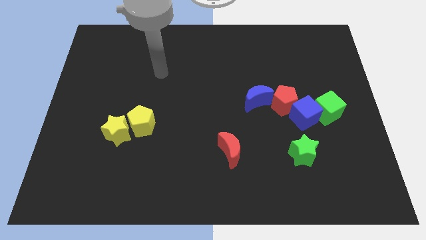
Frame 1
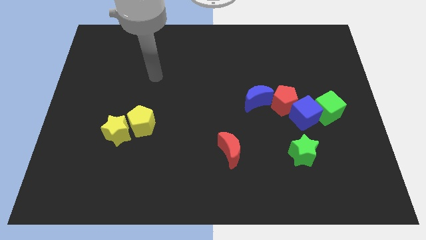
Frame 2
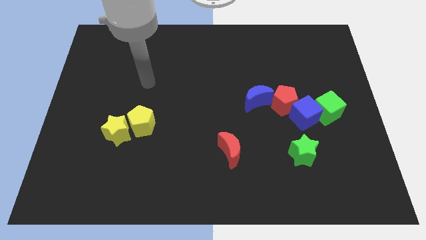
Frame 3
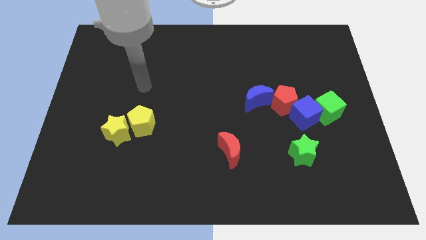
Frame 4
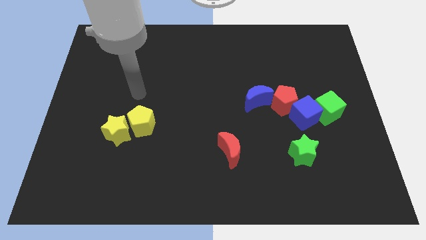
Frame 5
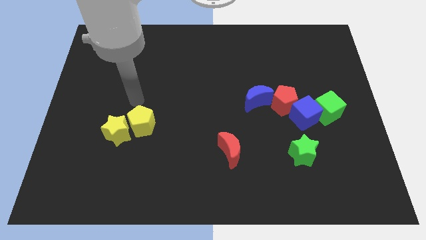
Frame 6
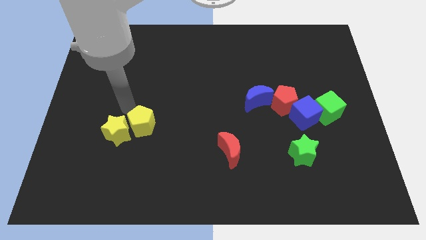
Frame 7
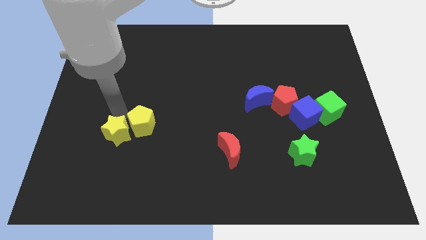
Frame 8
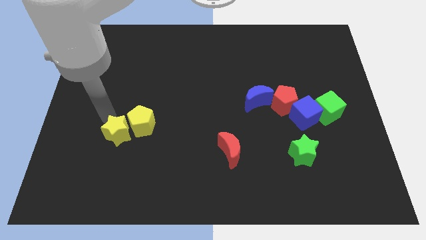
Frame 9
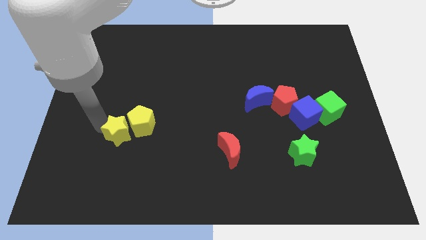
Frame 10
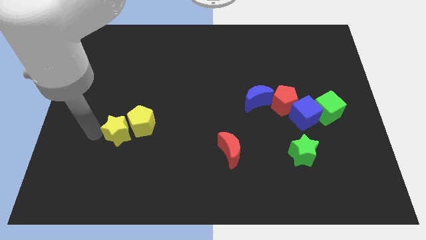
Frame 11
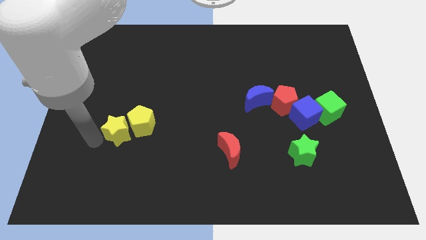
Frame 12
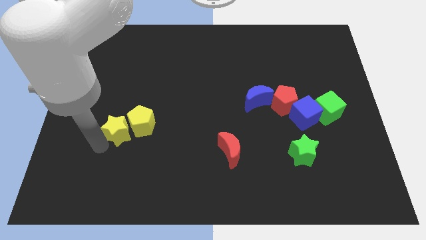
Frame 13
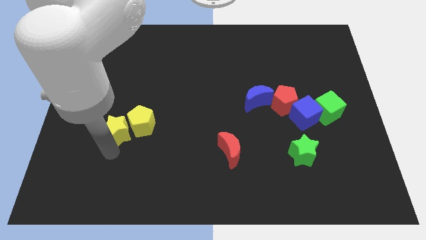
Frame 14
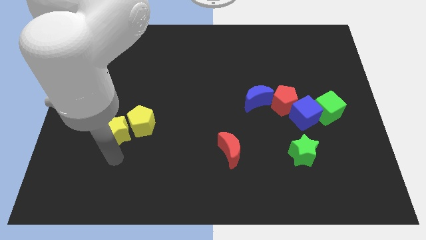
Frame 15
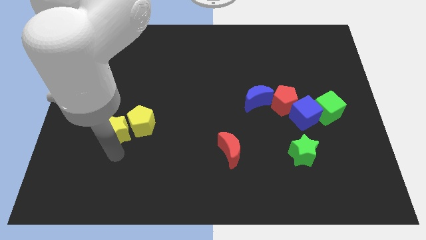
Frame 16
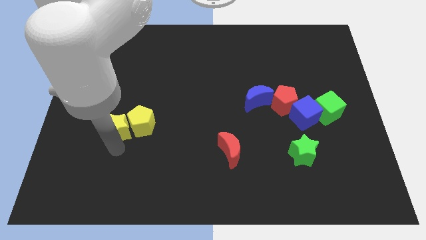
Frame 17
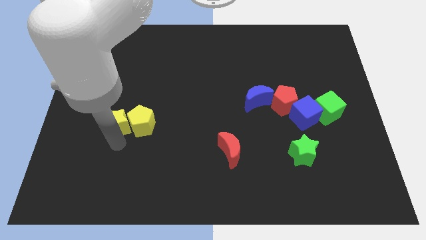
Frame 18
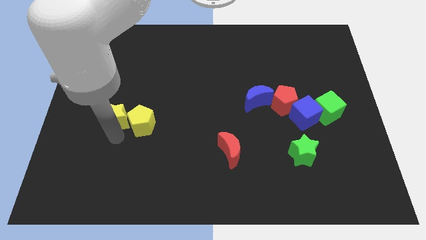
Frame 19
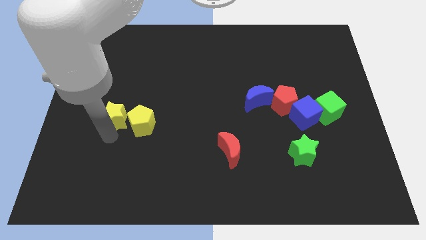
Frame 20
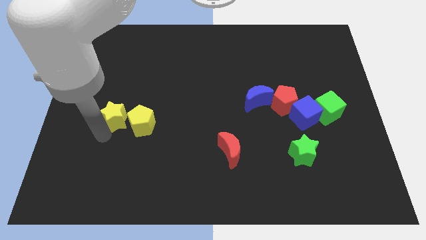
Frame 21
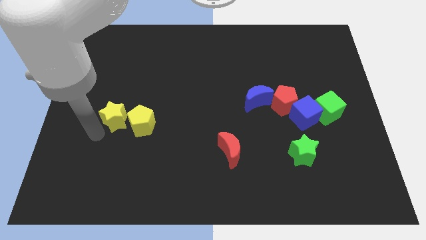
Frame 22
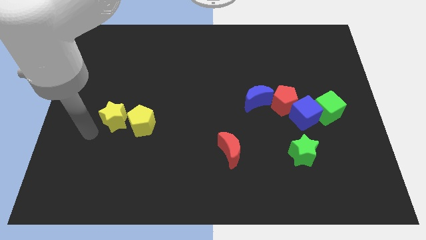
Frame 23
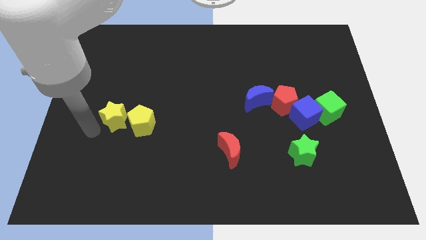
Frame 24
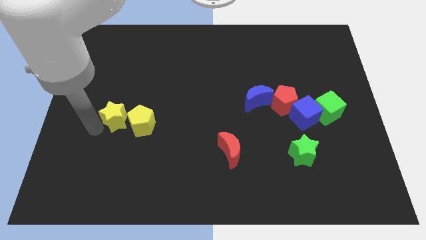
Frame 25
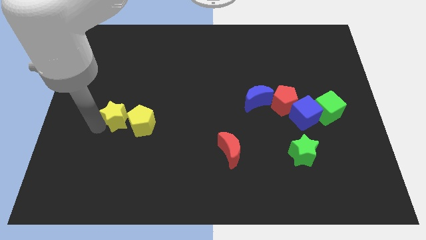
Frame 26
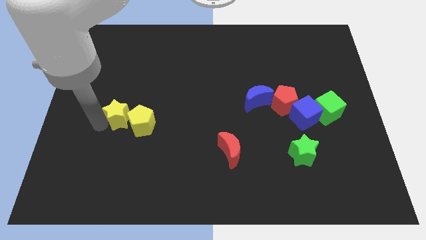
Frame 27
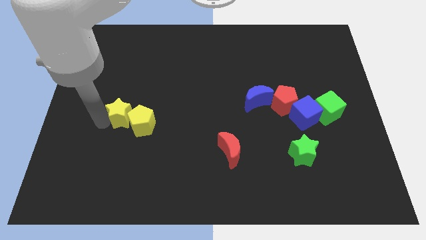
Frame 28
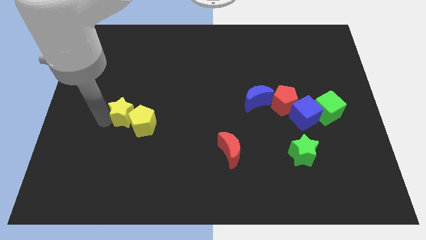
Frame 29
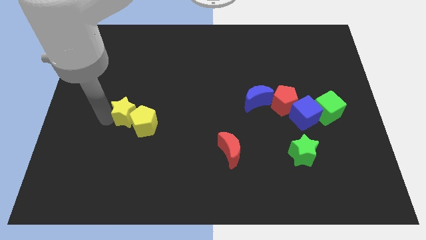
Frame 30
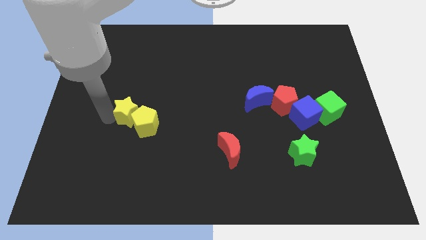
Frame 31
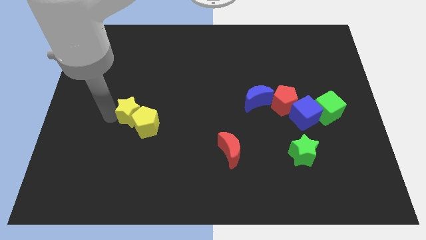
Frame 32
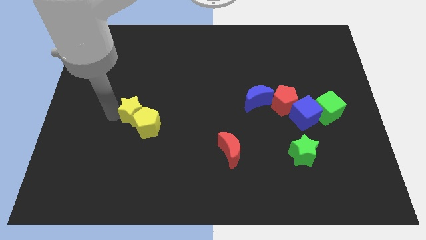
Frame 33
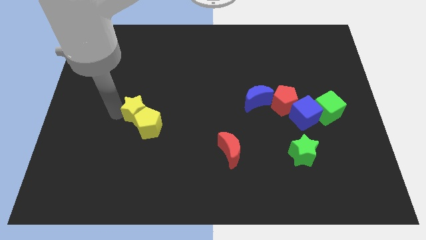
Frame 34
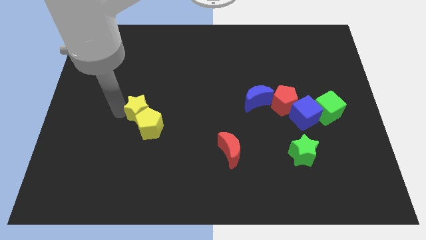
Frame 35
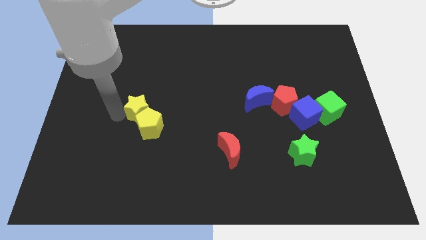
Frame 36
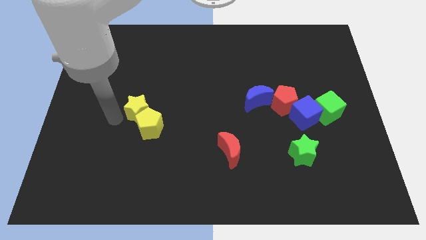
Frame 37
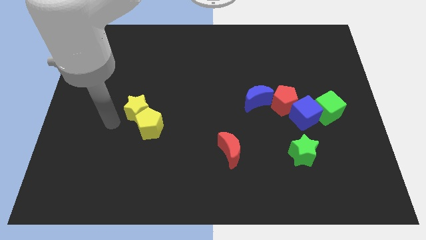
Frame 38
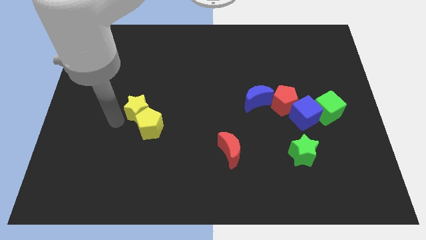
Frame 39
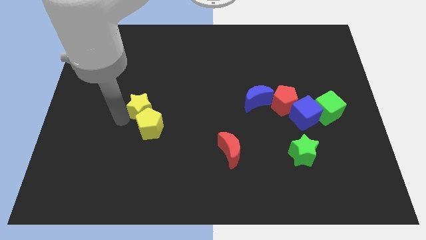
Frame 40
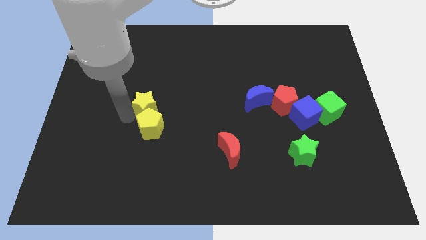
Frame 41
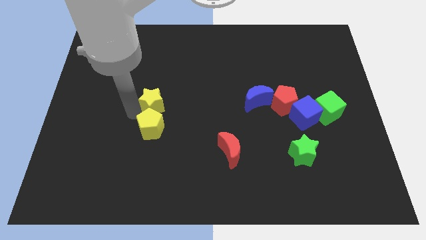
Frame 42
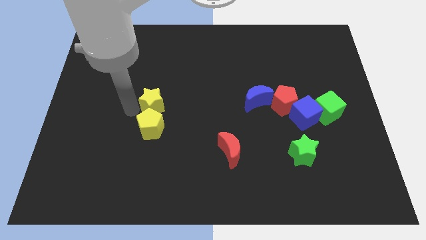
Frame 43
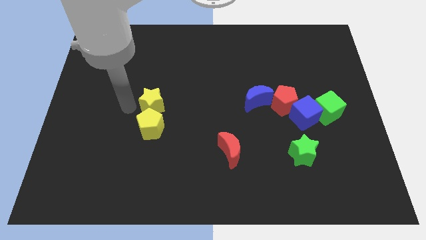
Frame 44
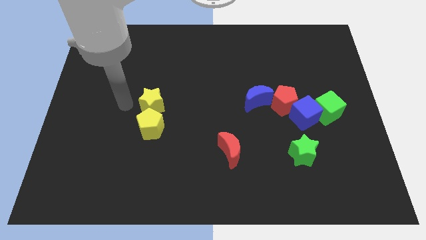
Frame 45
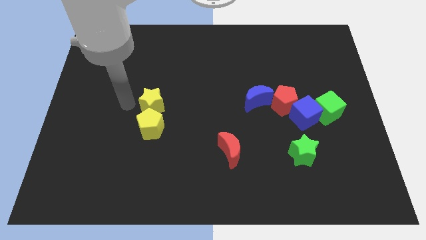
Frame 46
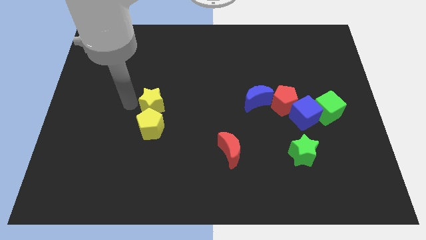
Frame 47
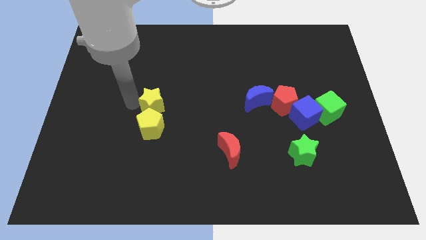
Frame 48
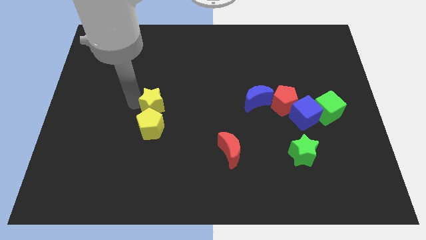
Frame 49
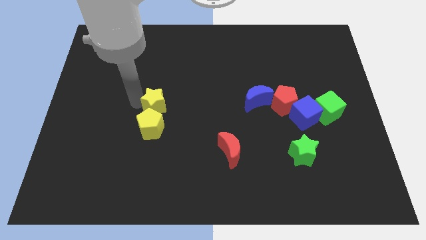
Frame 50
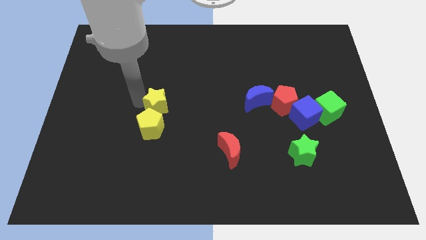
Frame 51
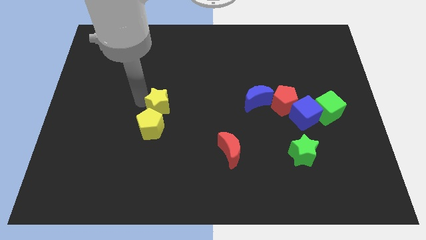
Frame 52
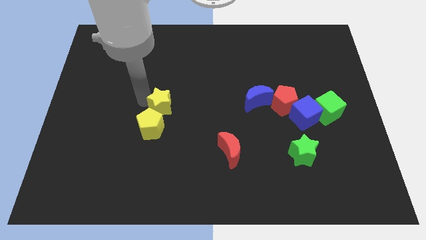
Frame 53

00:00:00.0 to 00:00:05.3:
put the yellow star to the middle

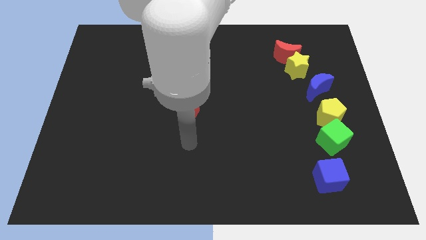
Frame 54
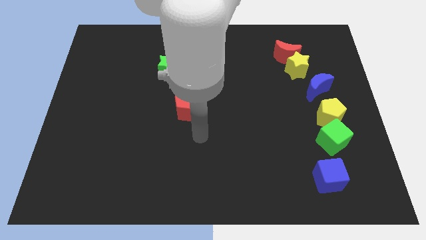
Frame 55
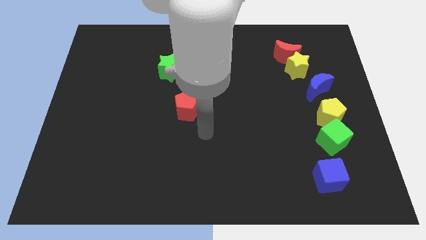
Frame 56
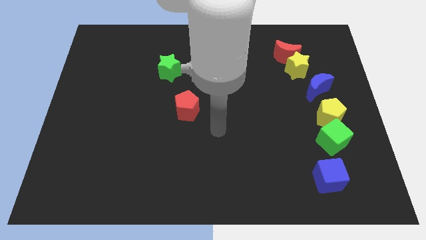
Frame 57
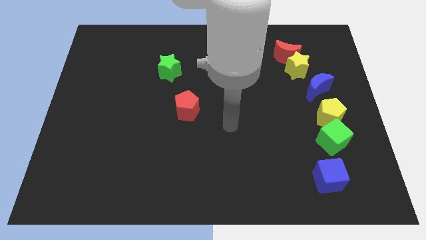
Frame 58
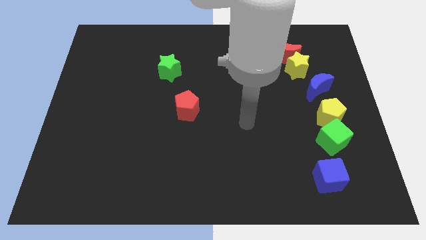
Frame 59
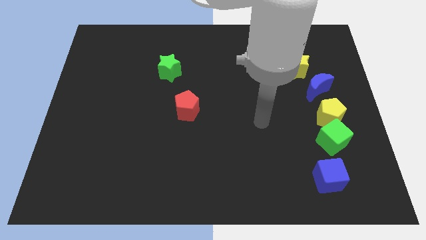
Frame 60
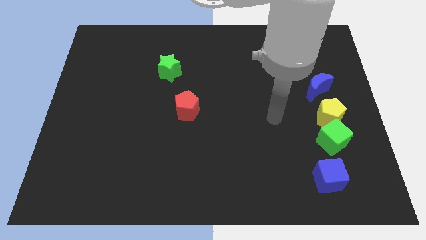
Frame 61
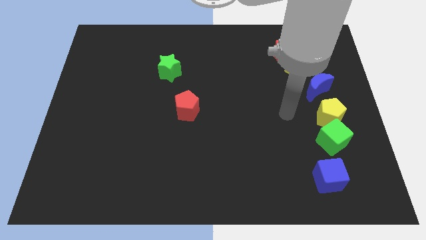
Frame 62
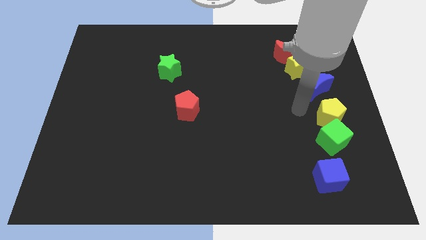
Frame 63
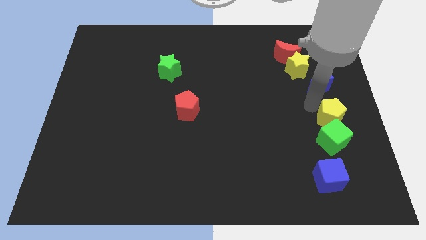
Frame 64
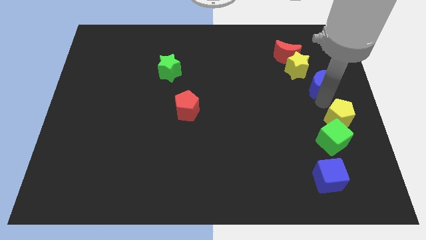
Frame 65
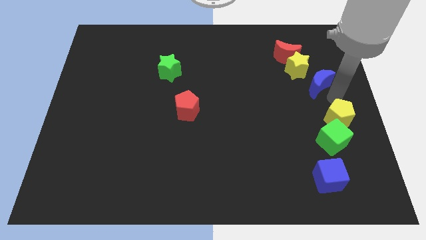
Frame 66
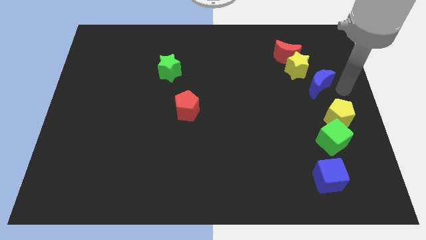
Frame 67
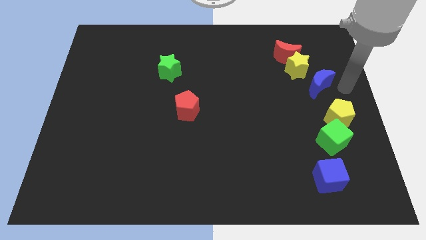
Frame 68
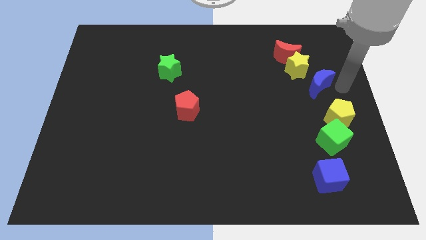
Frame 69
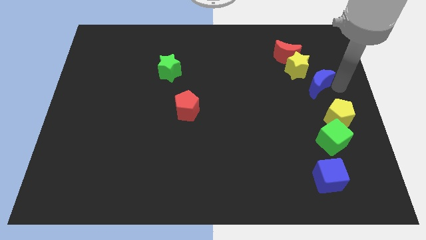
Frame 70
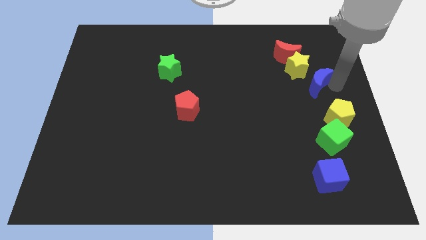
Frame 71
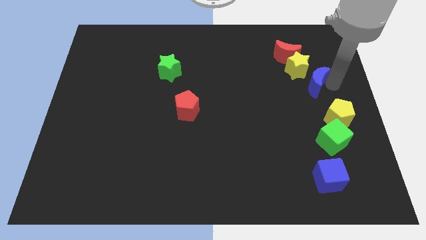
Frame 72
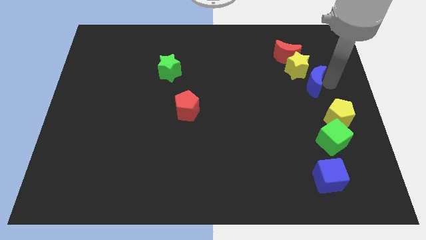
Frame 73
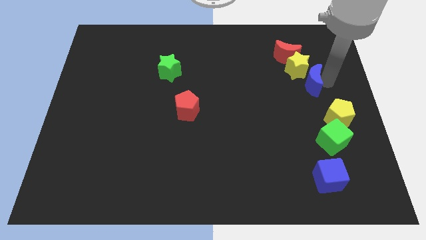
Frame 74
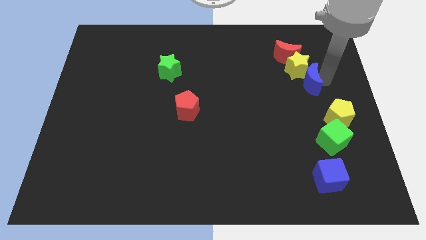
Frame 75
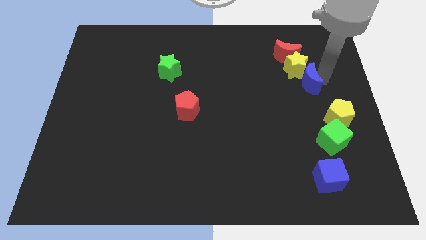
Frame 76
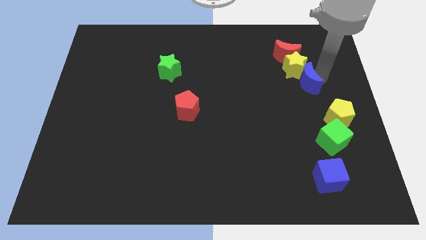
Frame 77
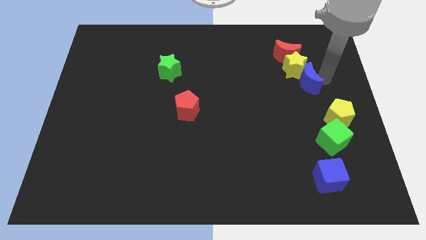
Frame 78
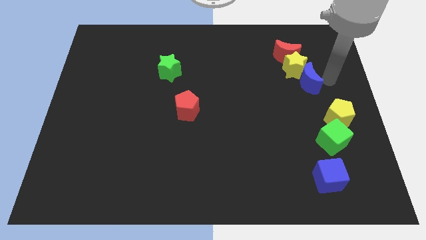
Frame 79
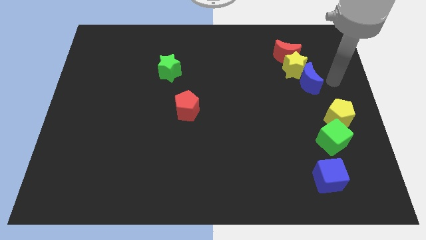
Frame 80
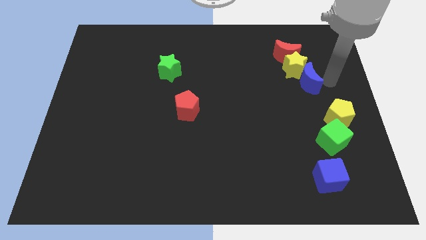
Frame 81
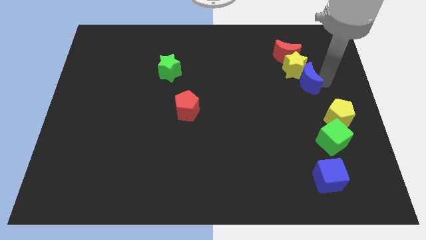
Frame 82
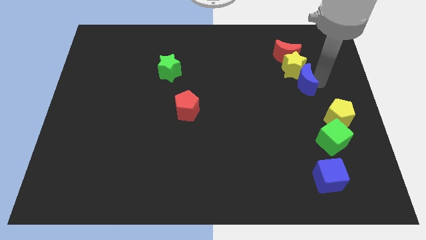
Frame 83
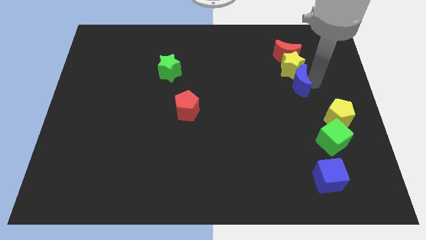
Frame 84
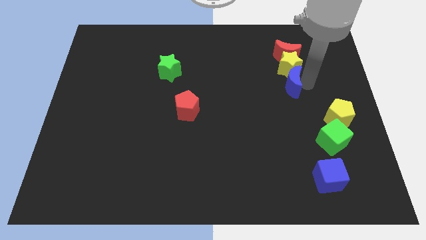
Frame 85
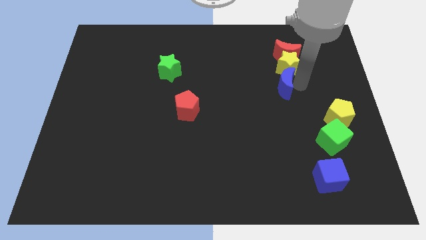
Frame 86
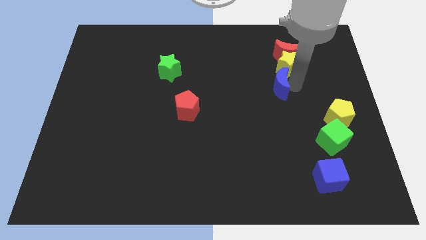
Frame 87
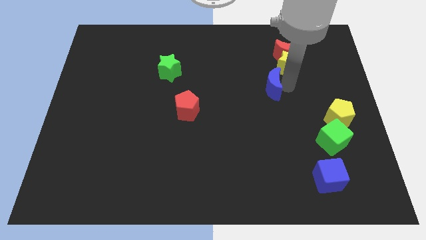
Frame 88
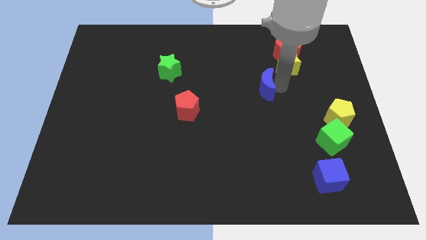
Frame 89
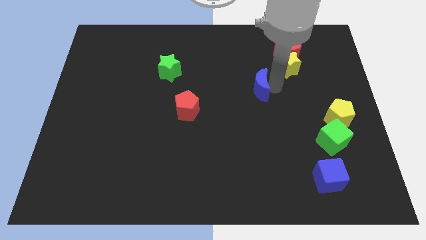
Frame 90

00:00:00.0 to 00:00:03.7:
slide the blue moon to the center of the board
